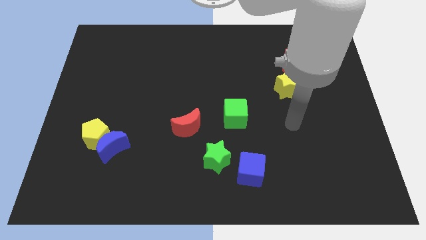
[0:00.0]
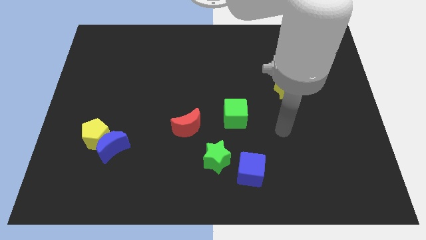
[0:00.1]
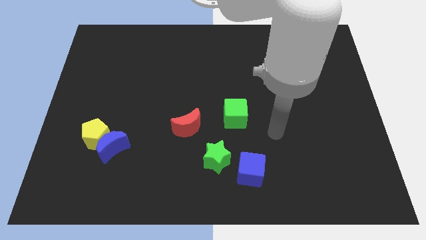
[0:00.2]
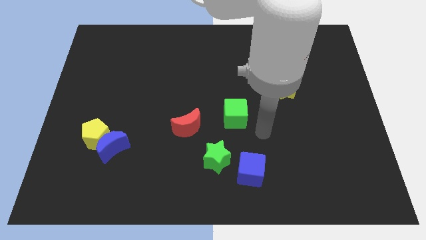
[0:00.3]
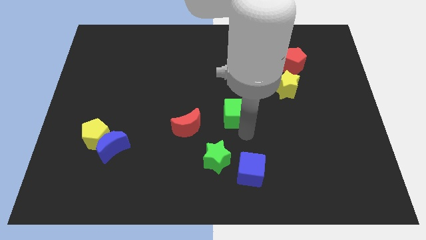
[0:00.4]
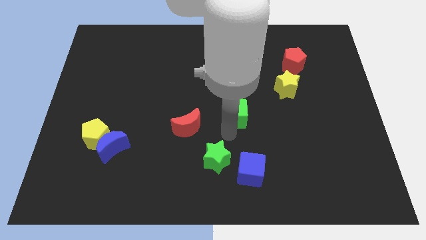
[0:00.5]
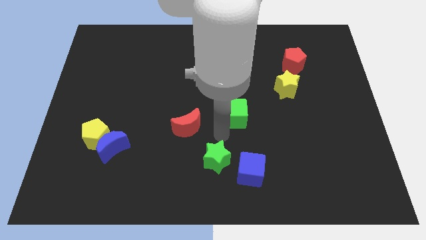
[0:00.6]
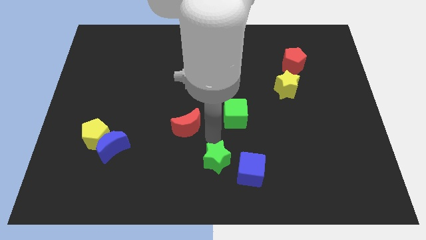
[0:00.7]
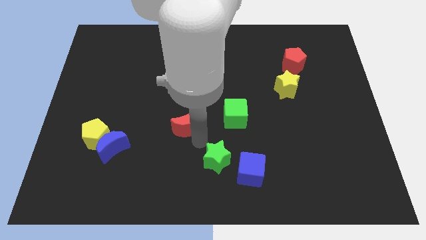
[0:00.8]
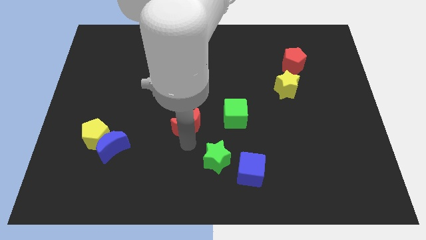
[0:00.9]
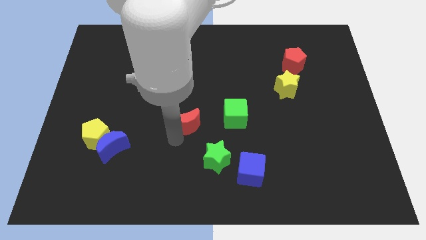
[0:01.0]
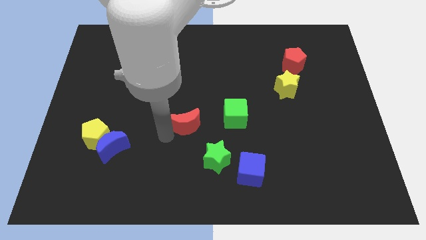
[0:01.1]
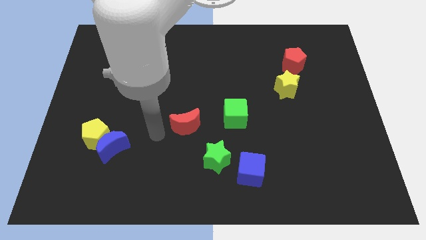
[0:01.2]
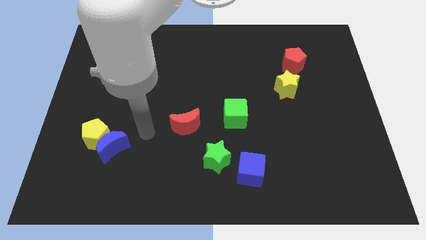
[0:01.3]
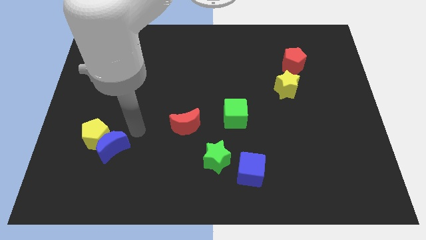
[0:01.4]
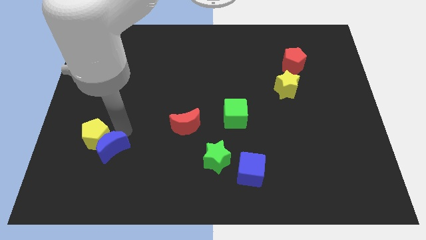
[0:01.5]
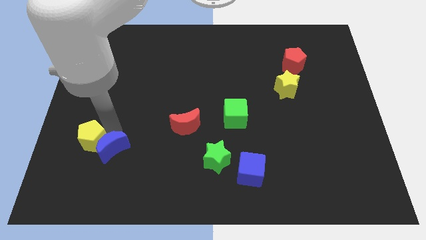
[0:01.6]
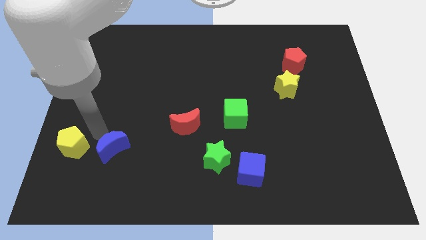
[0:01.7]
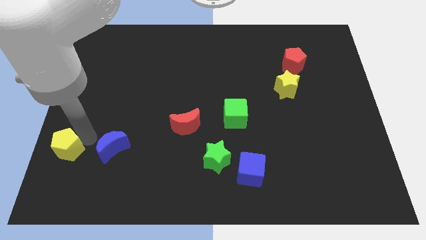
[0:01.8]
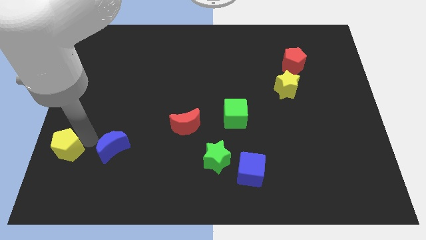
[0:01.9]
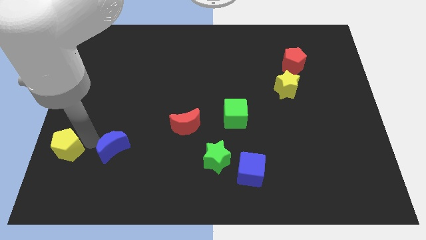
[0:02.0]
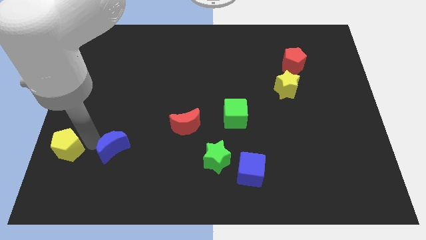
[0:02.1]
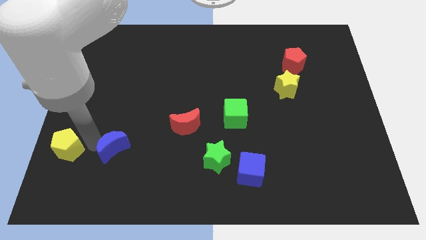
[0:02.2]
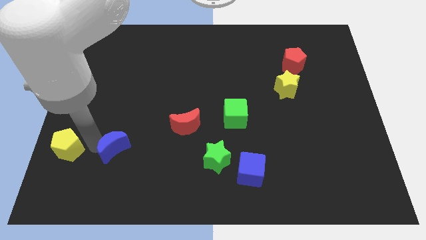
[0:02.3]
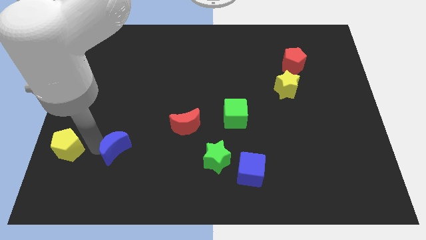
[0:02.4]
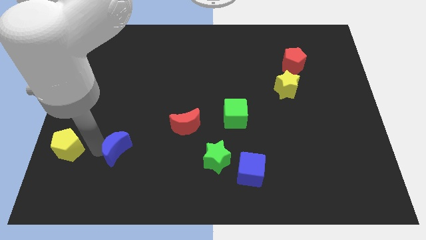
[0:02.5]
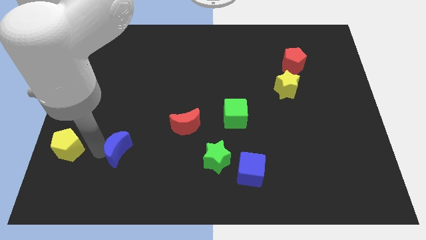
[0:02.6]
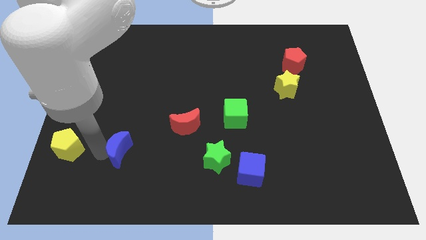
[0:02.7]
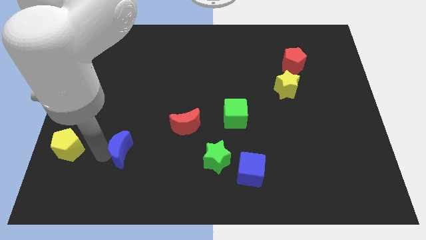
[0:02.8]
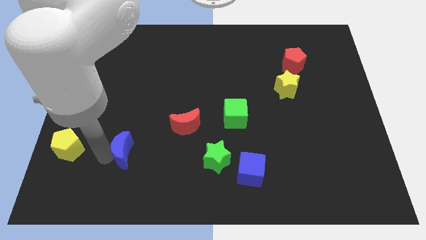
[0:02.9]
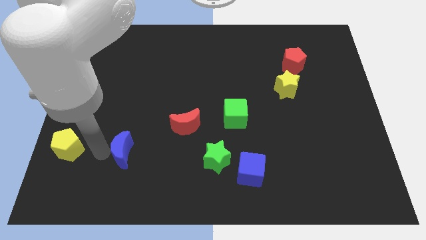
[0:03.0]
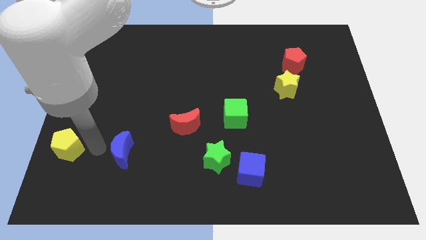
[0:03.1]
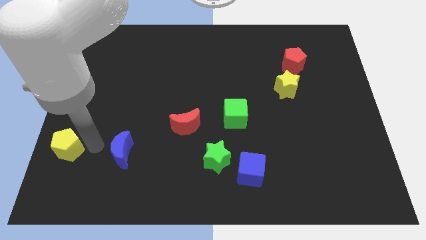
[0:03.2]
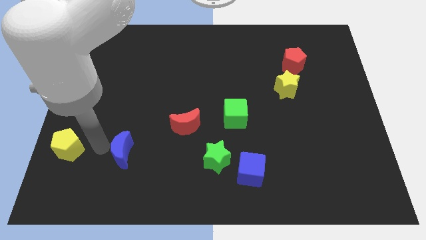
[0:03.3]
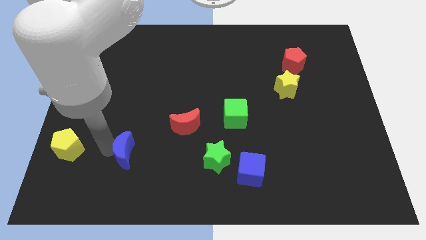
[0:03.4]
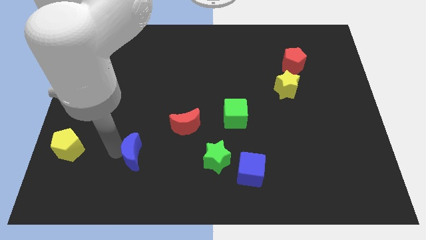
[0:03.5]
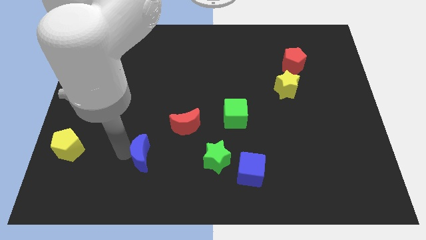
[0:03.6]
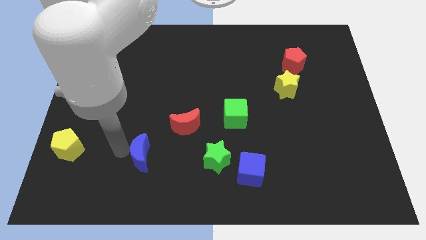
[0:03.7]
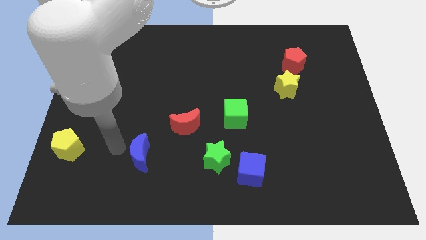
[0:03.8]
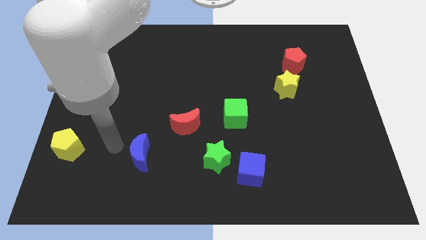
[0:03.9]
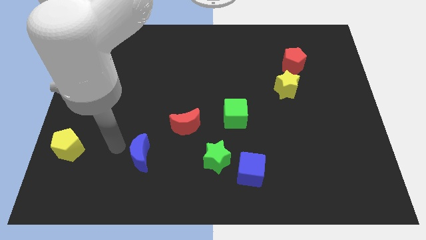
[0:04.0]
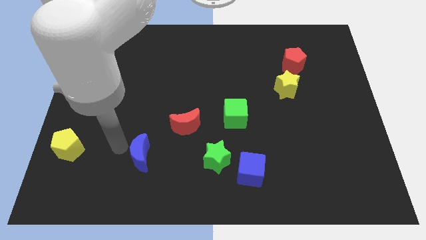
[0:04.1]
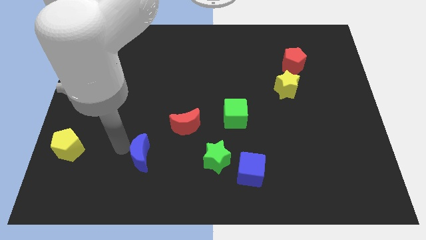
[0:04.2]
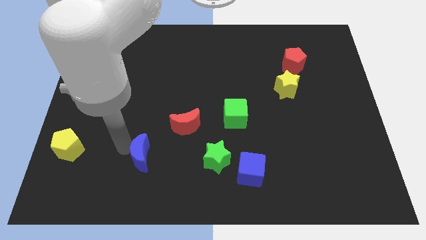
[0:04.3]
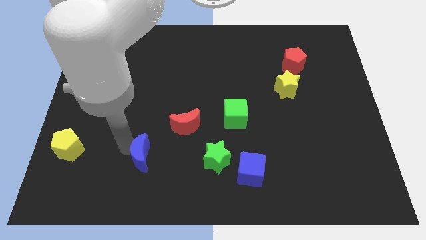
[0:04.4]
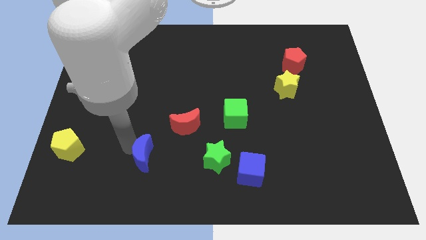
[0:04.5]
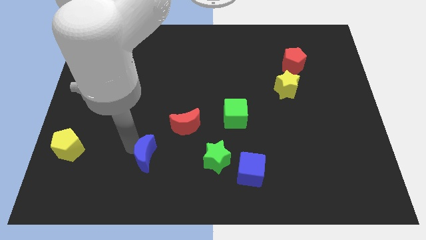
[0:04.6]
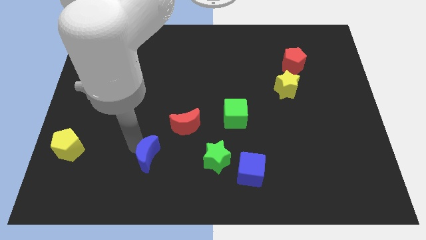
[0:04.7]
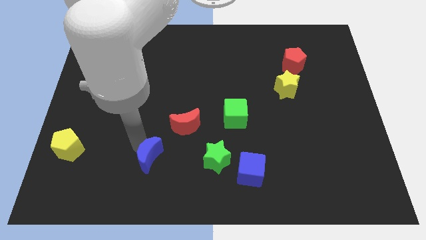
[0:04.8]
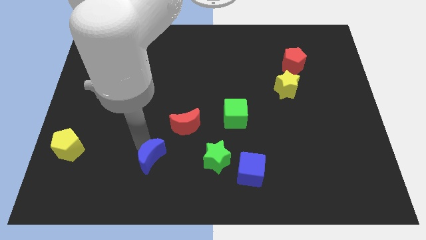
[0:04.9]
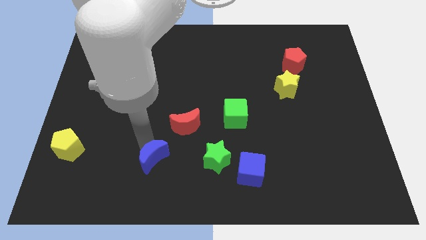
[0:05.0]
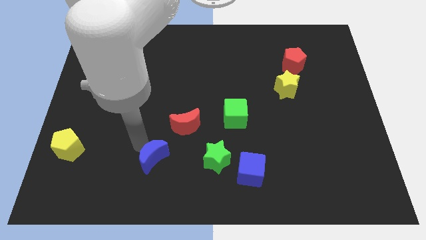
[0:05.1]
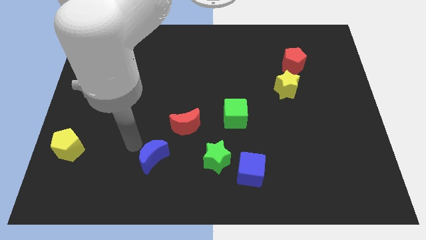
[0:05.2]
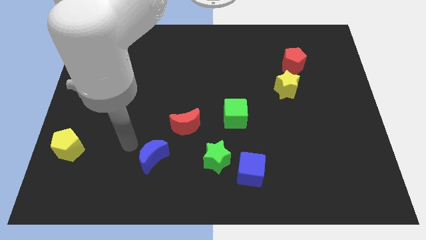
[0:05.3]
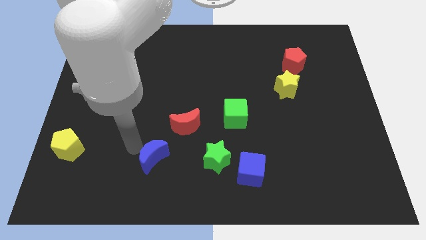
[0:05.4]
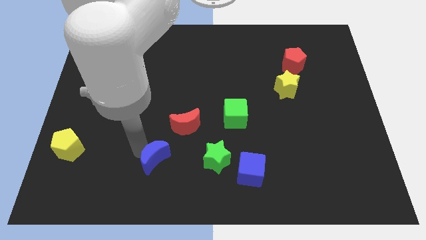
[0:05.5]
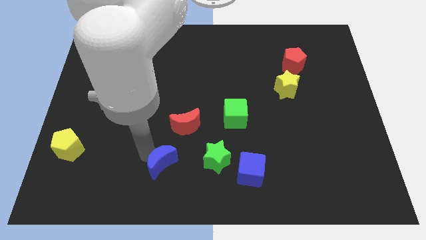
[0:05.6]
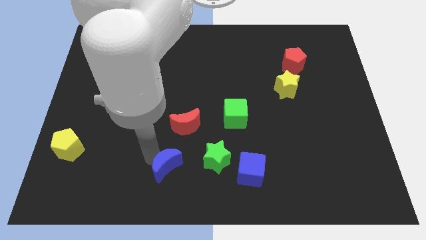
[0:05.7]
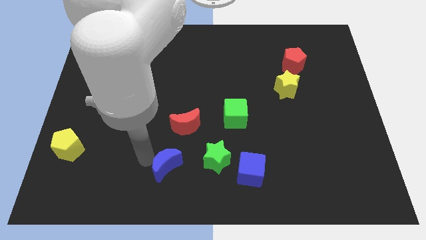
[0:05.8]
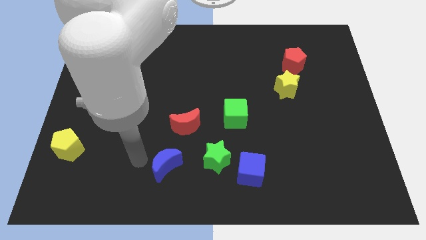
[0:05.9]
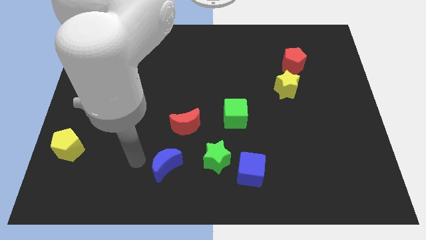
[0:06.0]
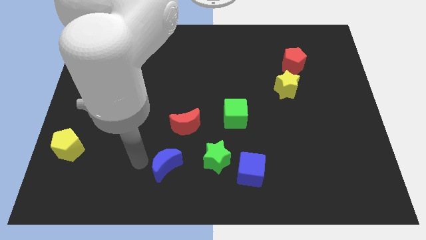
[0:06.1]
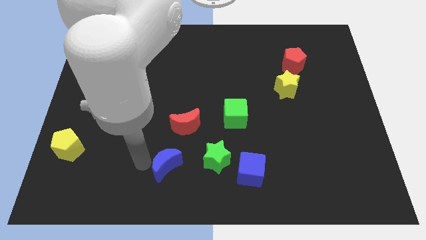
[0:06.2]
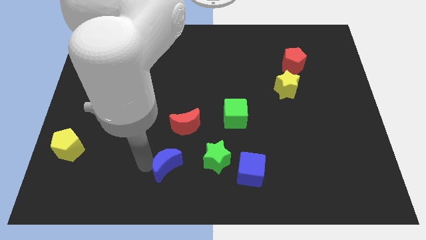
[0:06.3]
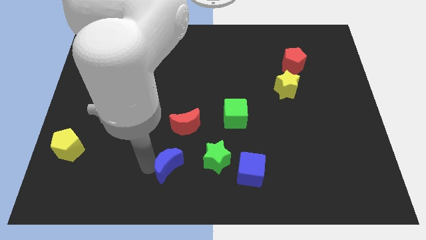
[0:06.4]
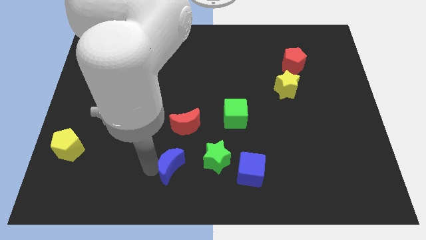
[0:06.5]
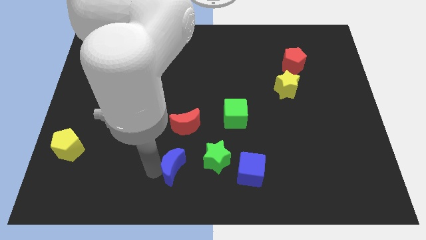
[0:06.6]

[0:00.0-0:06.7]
move the blue moon just left of the blue cube

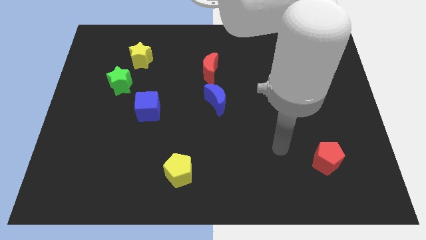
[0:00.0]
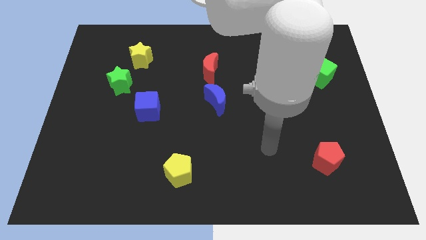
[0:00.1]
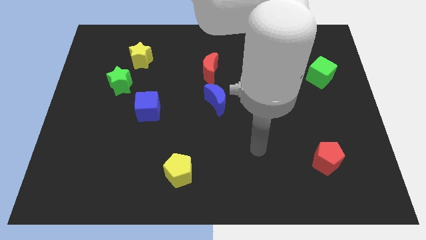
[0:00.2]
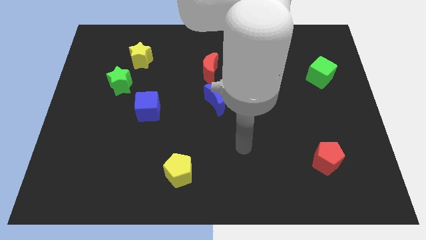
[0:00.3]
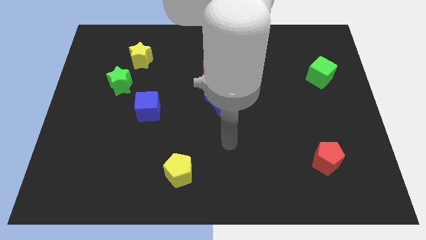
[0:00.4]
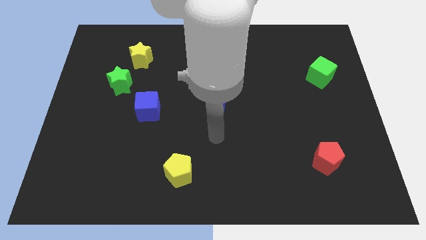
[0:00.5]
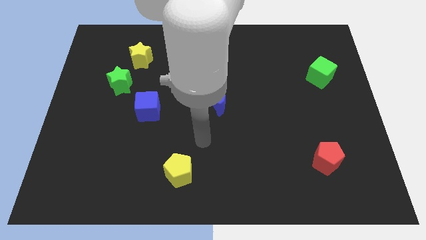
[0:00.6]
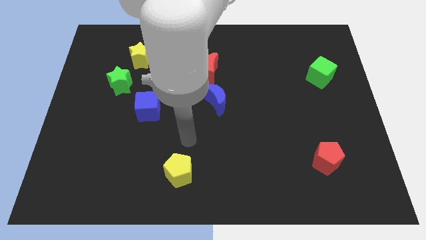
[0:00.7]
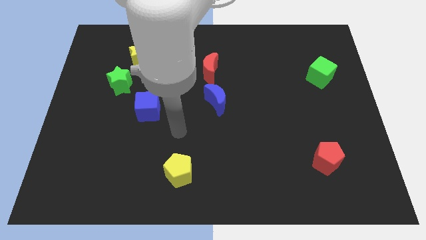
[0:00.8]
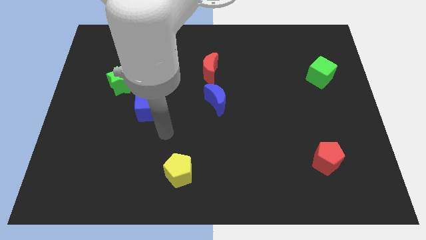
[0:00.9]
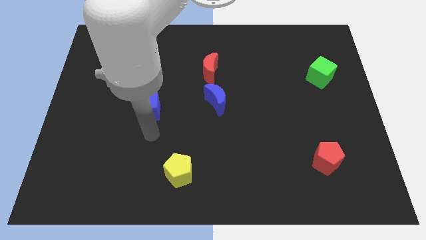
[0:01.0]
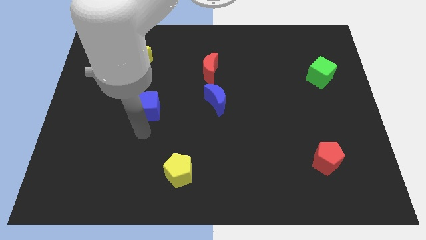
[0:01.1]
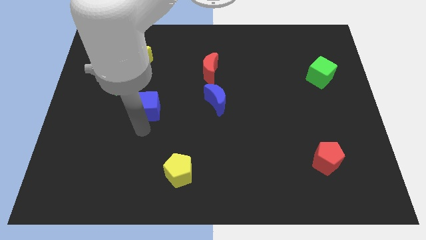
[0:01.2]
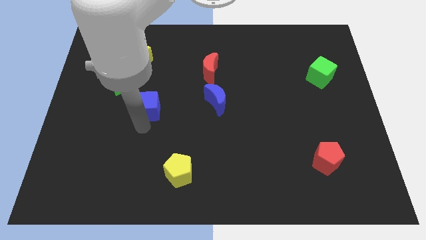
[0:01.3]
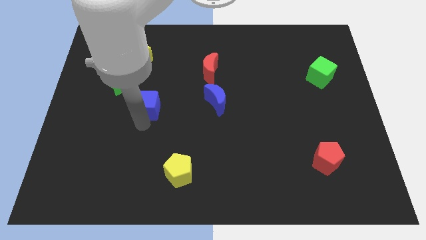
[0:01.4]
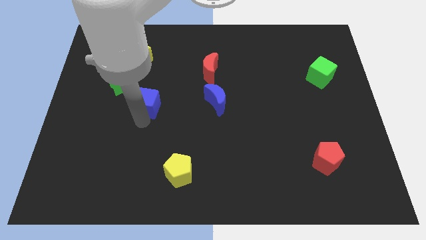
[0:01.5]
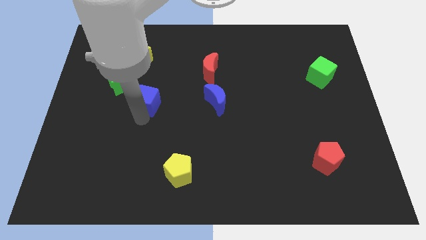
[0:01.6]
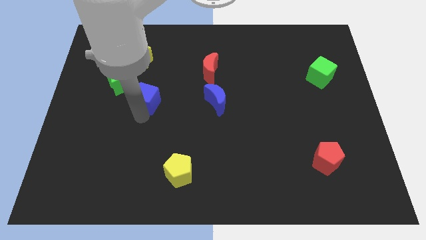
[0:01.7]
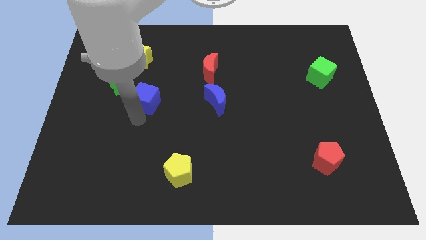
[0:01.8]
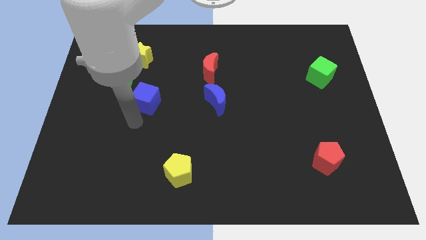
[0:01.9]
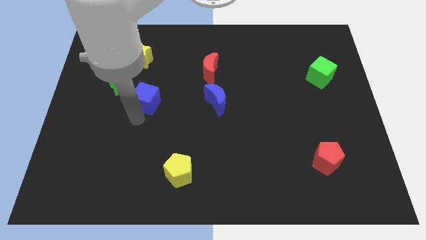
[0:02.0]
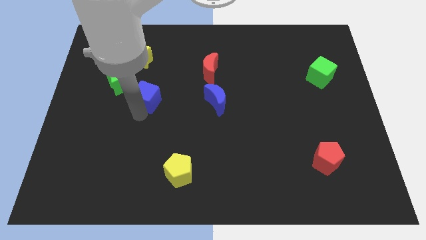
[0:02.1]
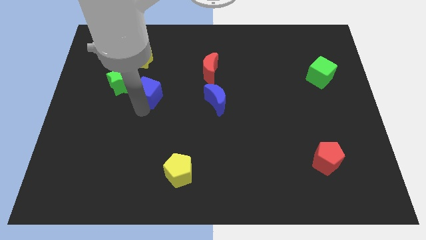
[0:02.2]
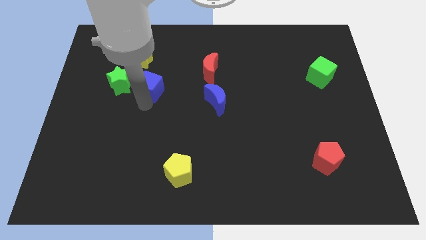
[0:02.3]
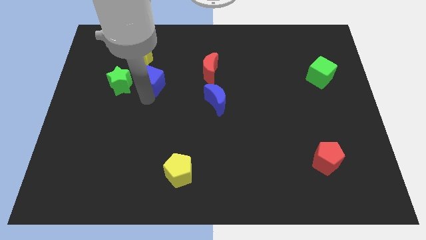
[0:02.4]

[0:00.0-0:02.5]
put the blue cube diagonally down and to the right of the yellow star
